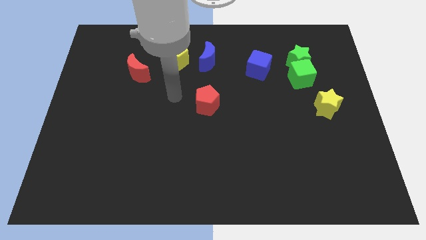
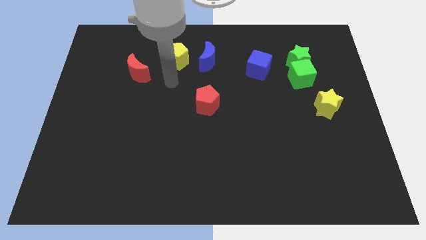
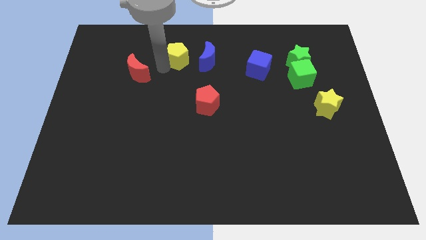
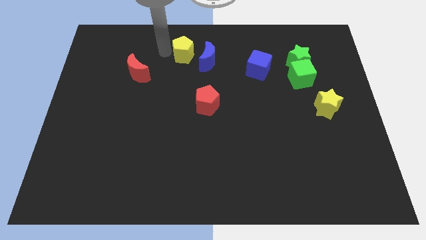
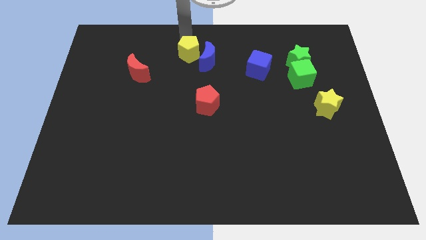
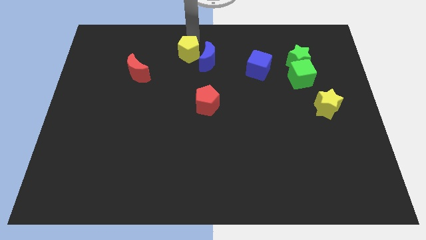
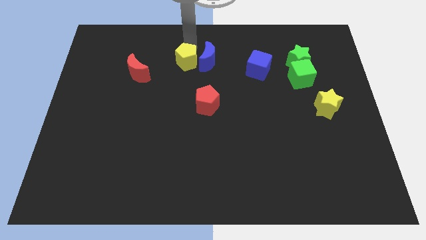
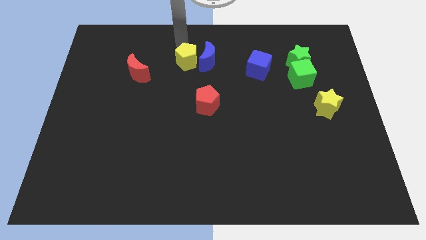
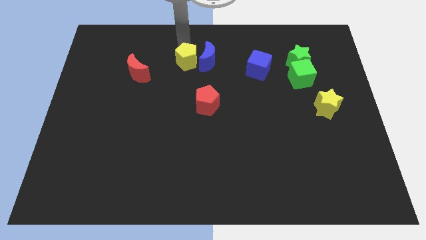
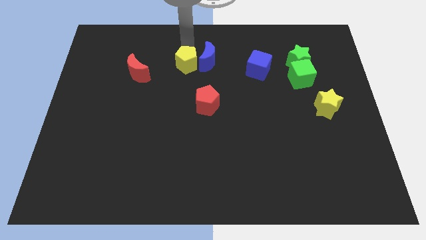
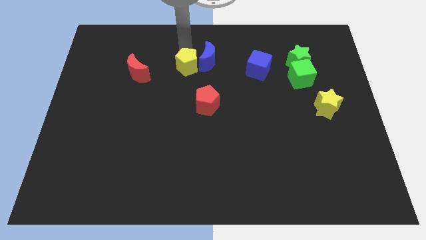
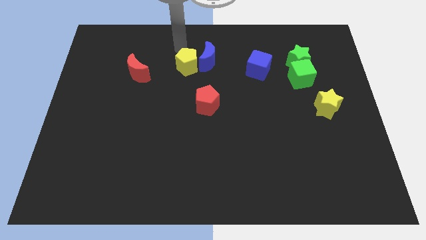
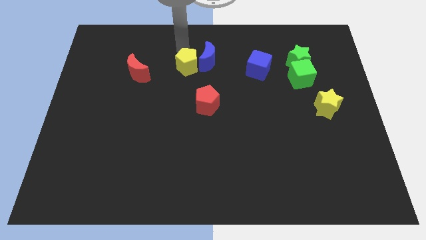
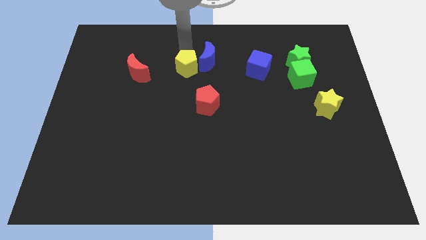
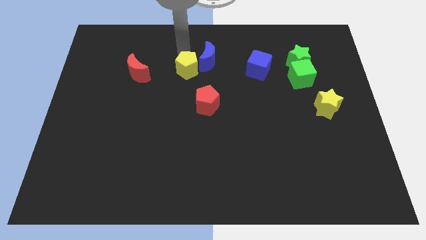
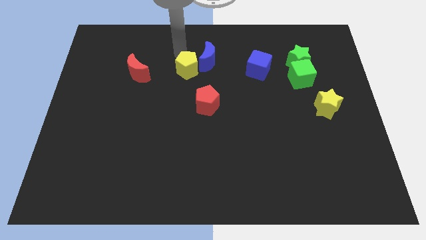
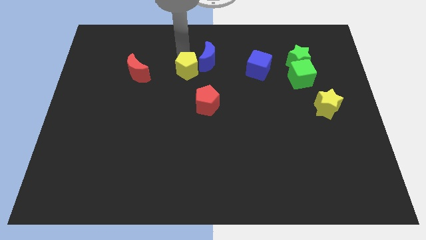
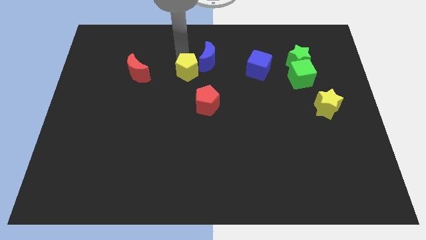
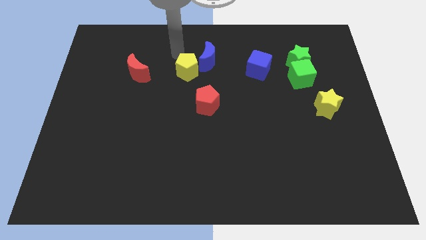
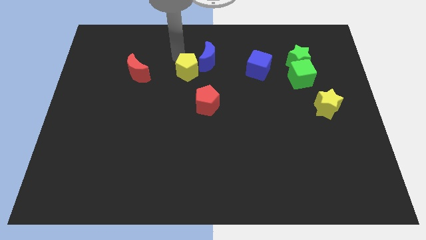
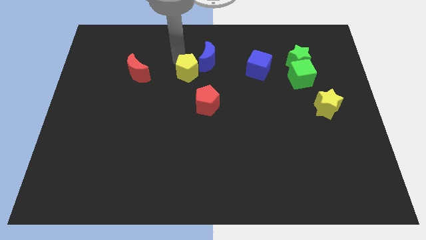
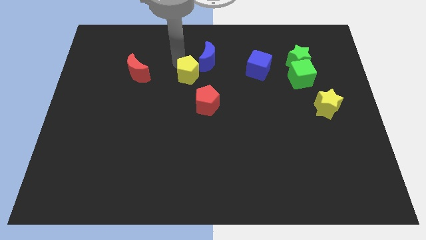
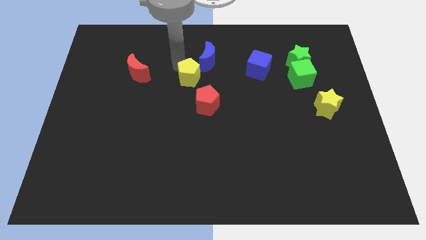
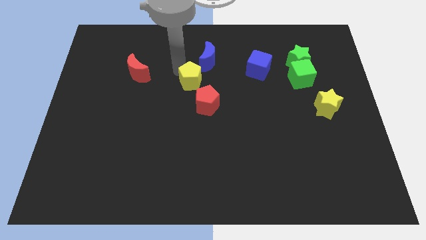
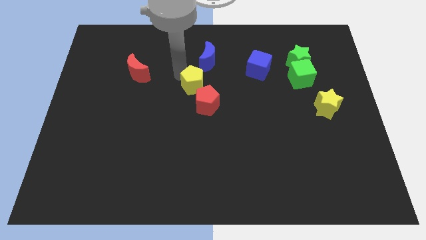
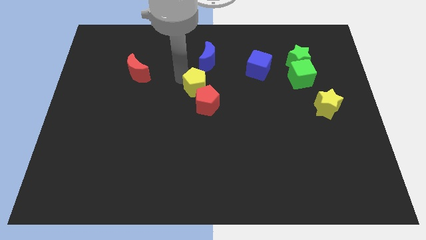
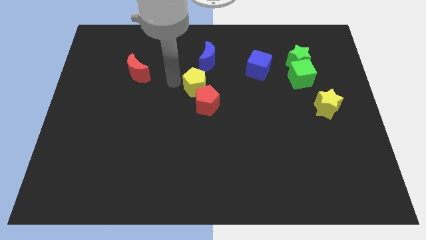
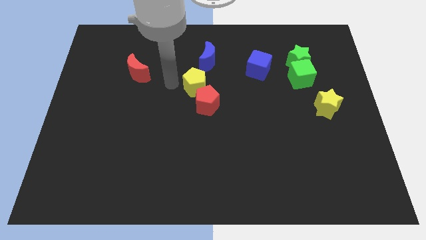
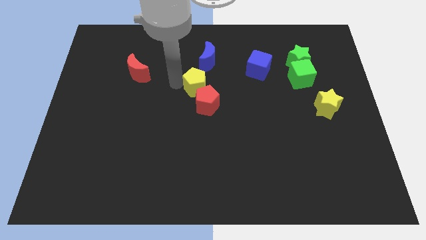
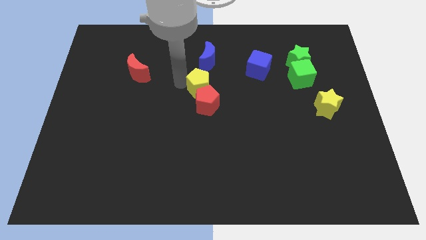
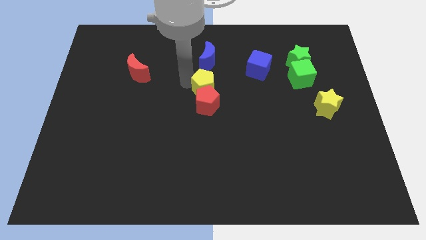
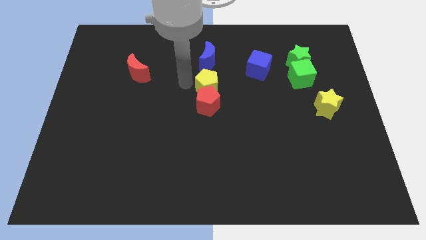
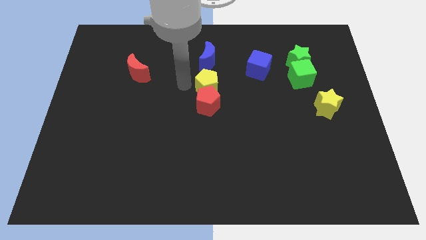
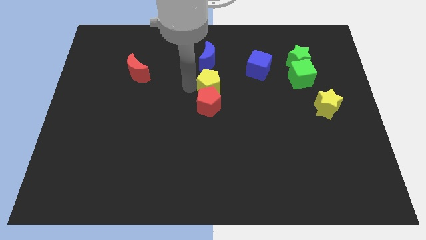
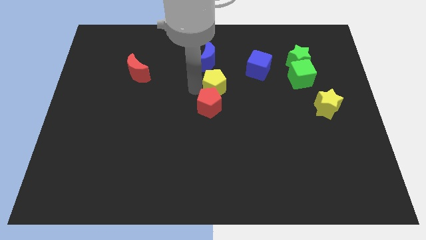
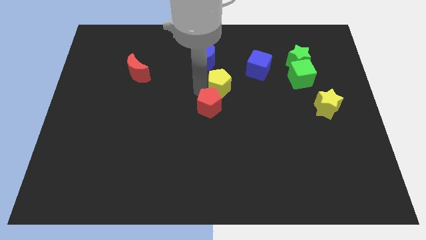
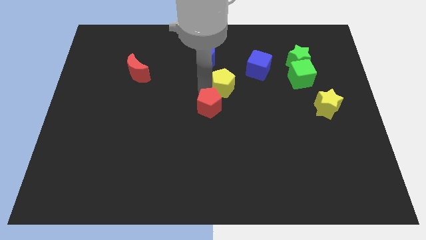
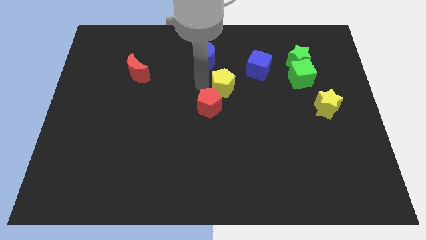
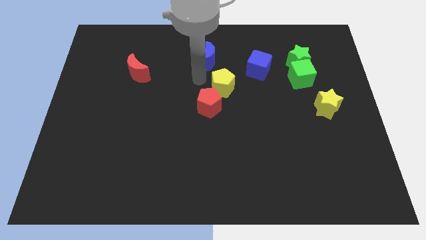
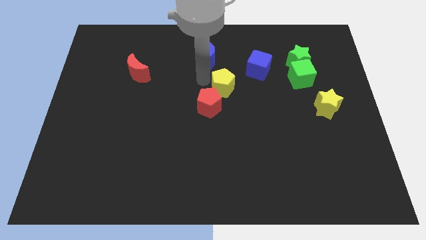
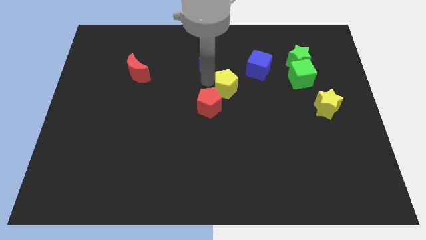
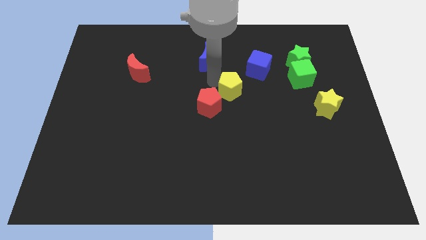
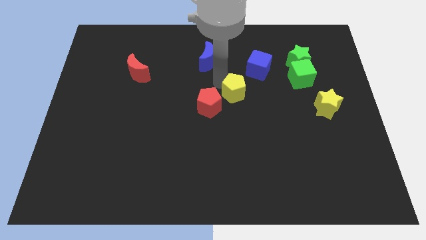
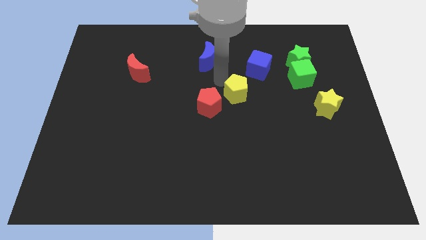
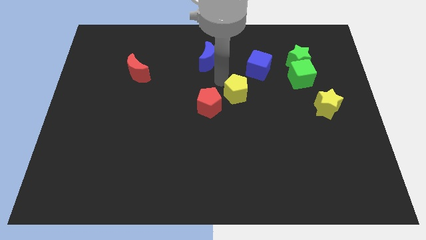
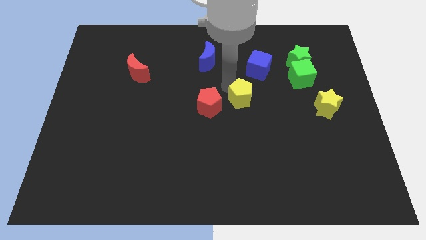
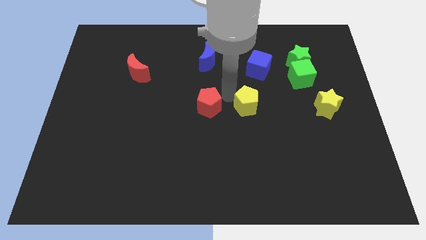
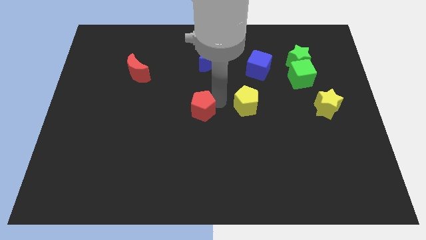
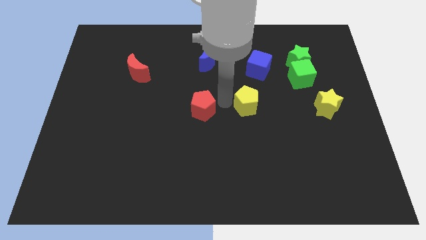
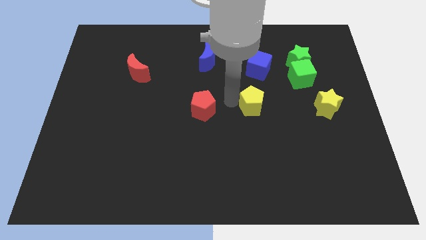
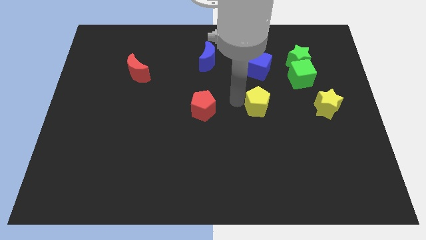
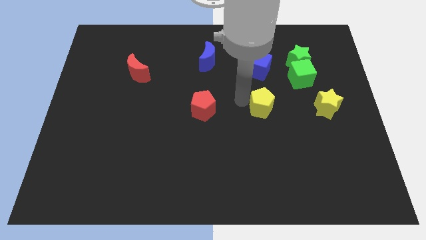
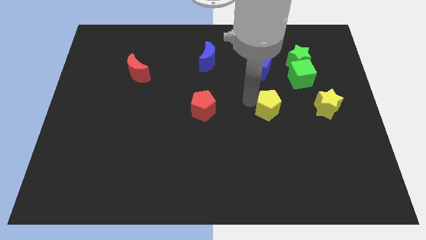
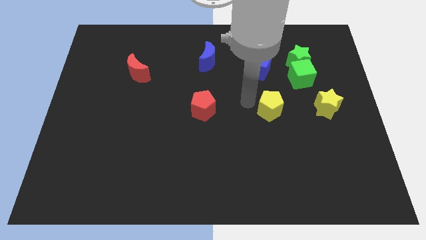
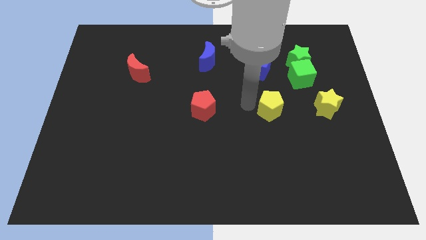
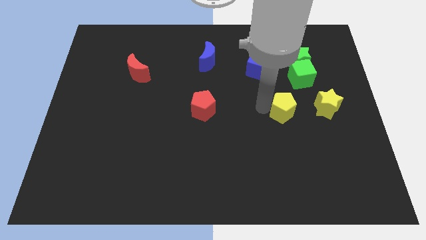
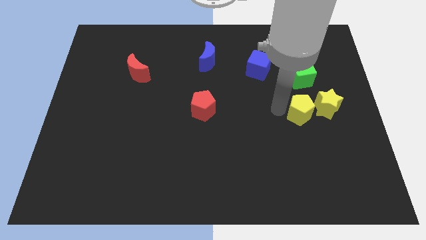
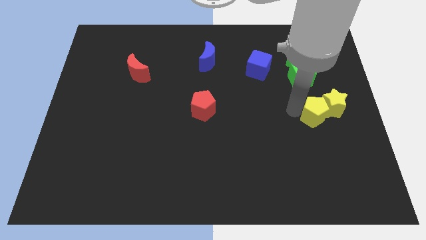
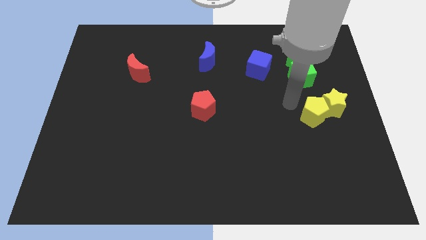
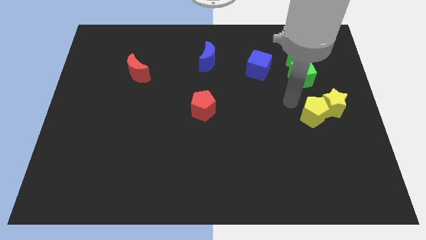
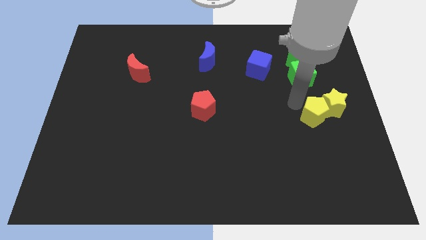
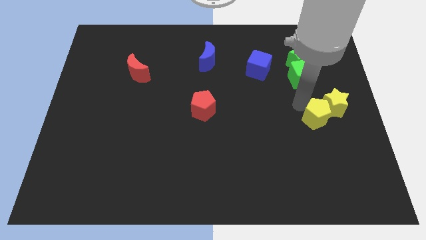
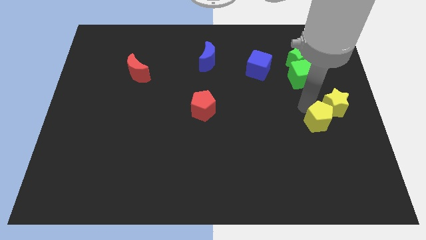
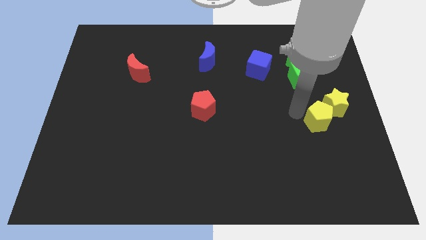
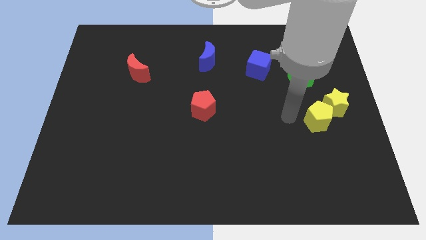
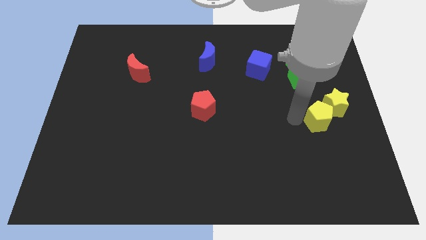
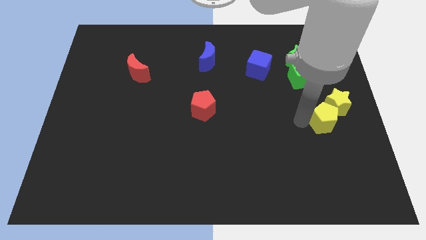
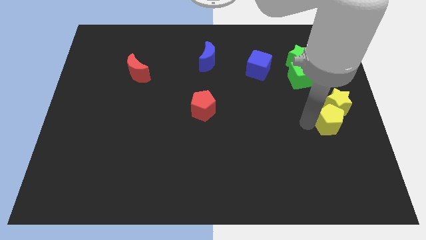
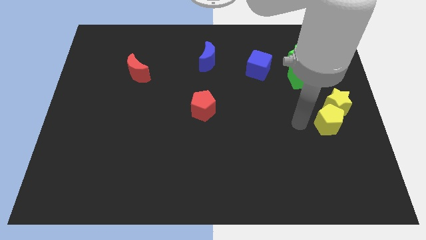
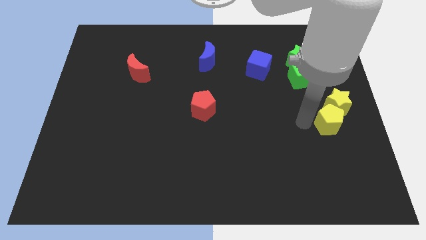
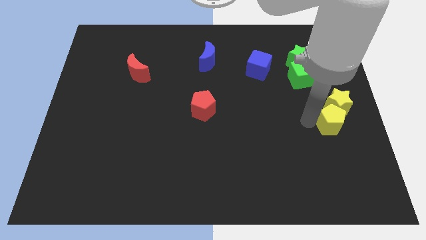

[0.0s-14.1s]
move the yellow pentagon to the right side
